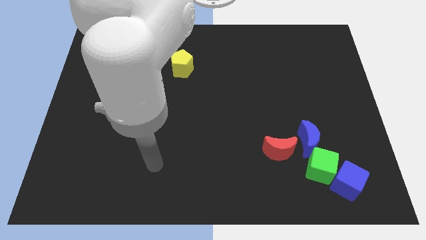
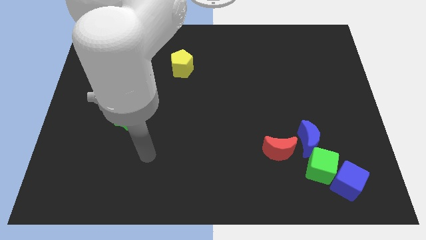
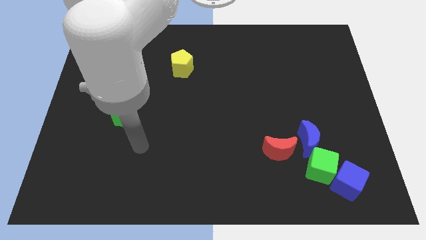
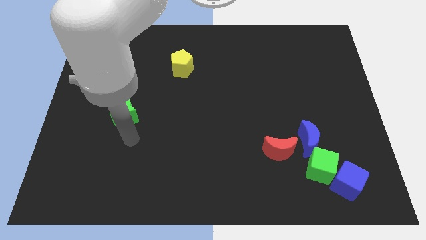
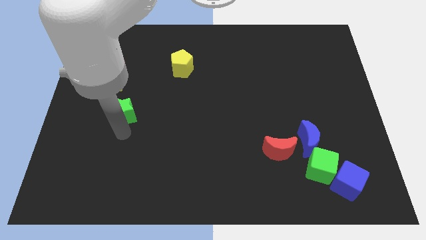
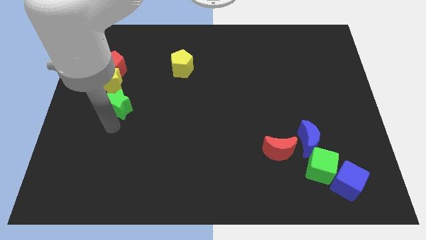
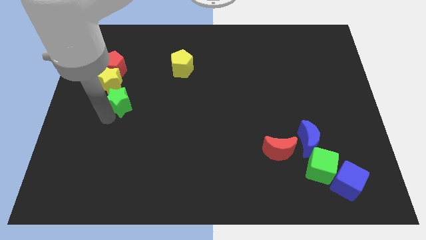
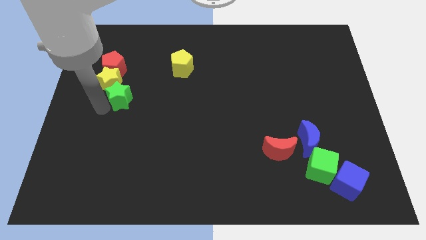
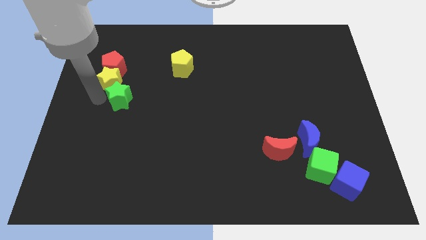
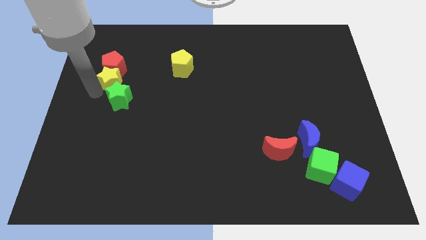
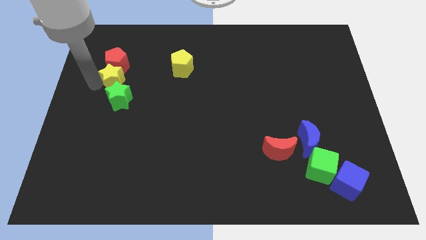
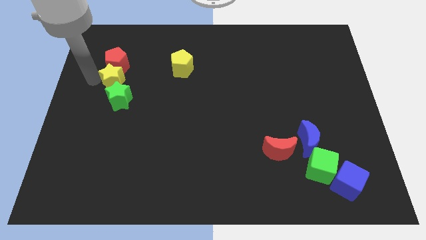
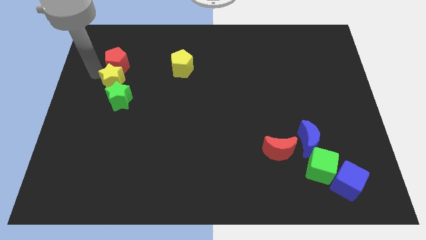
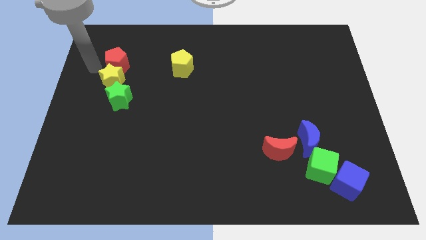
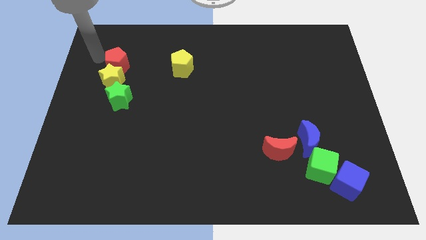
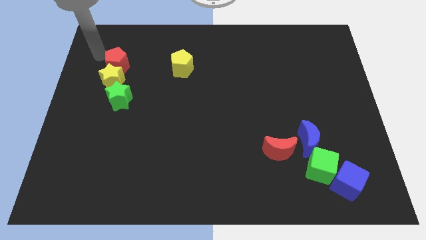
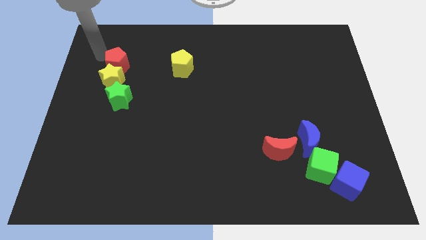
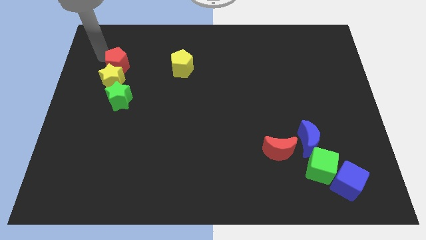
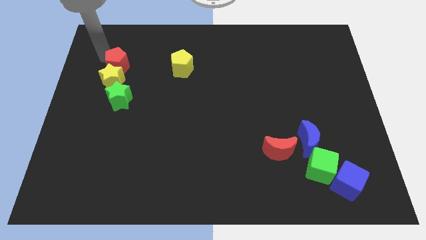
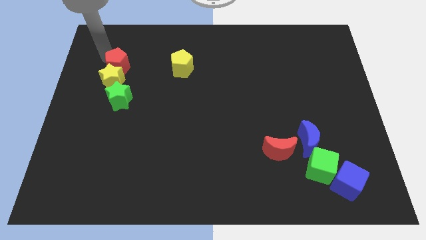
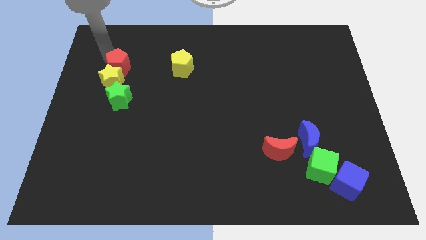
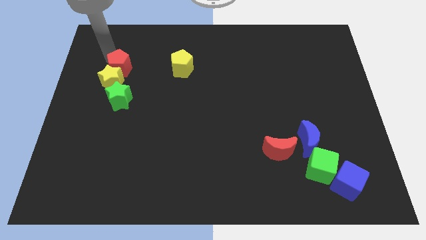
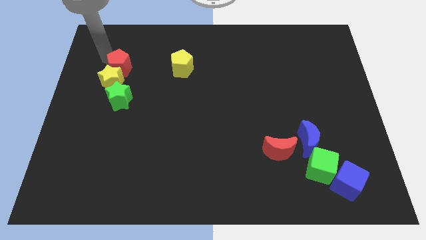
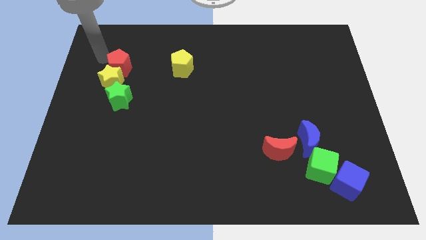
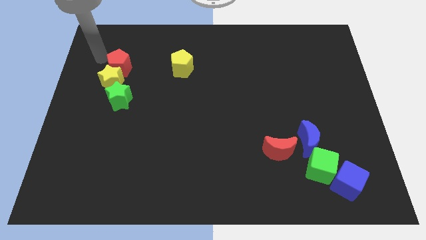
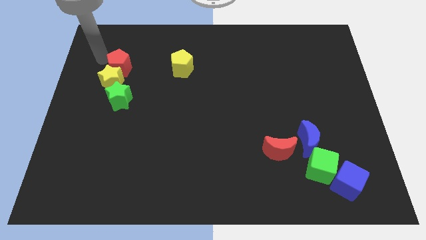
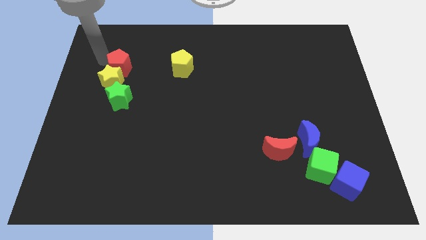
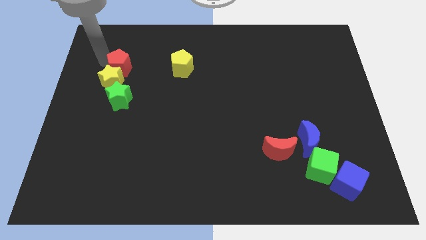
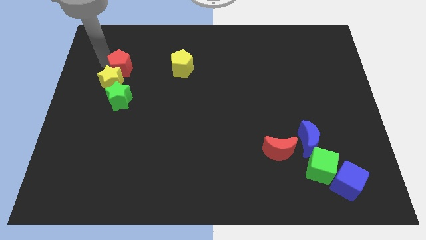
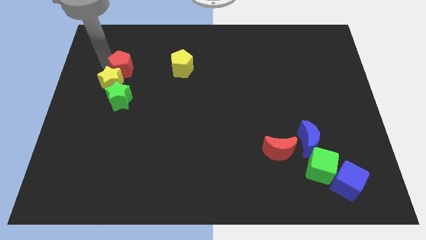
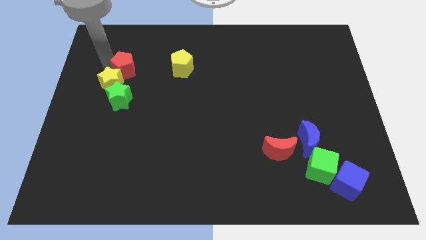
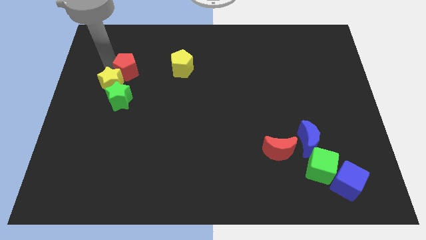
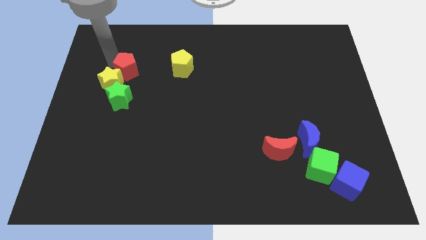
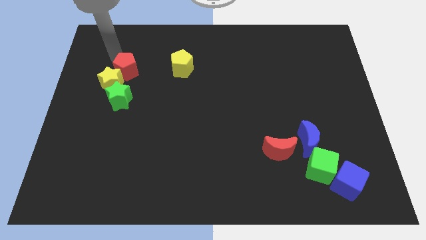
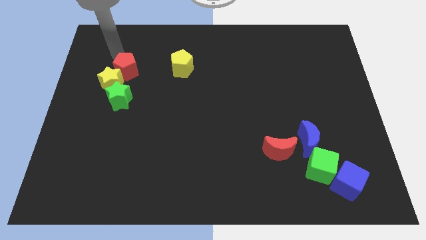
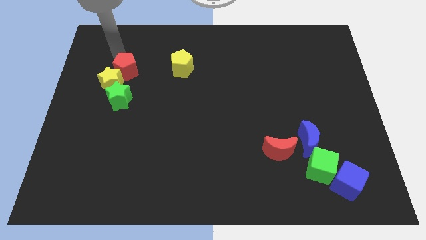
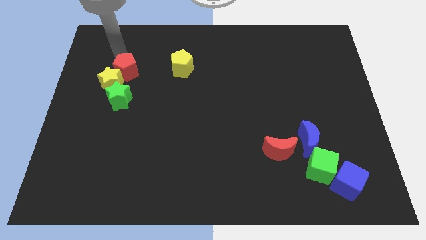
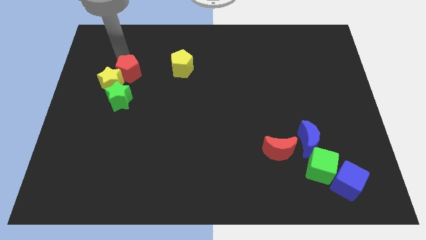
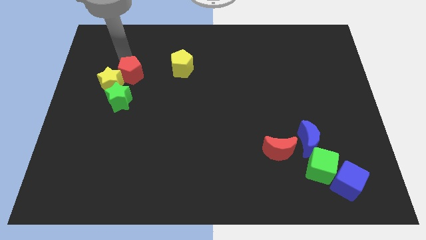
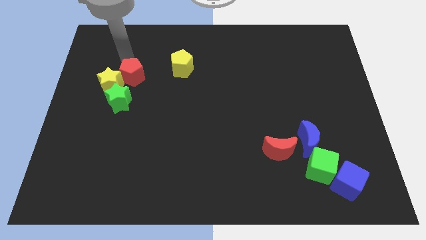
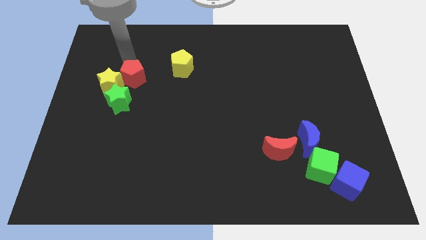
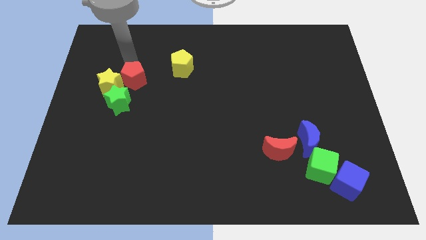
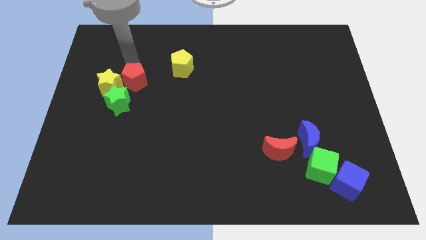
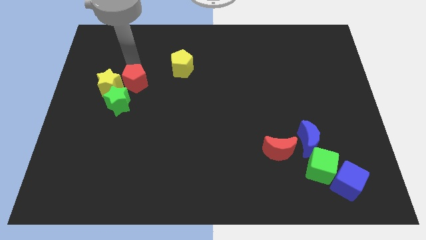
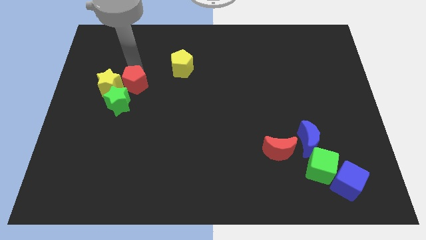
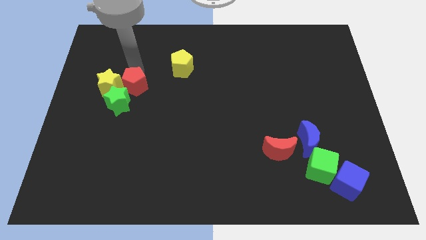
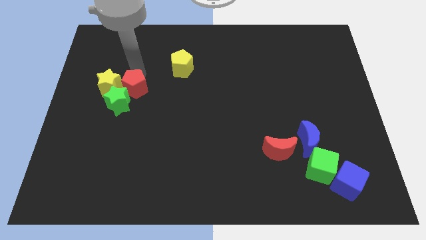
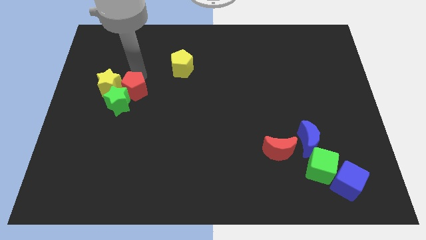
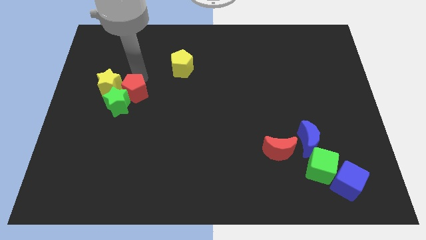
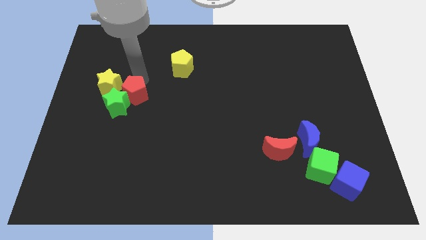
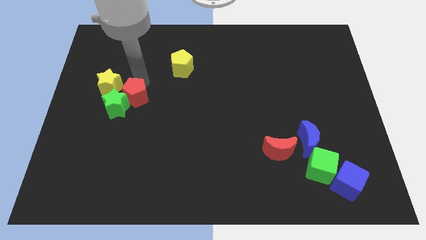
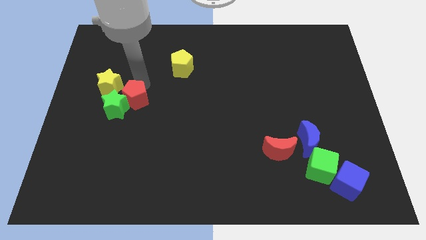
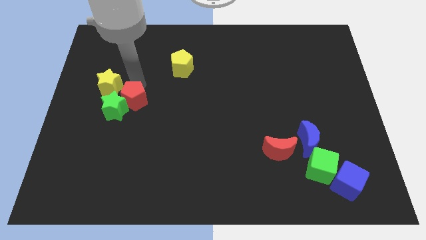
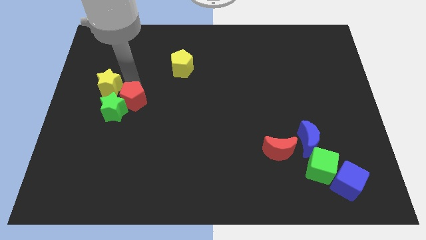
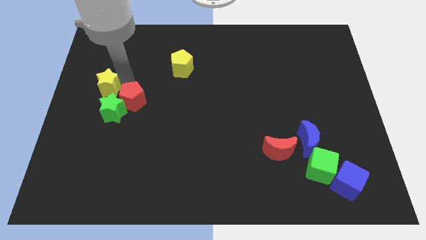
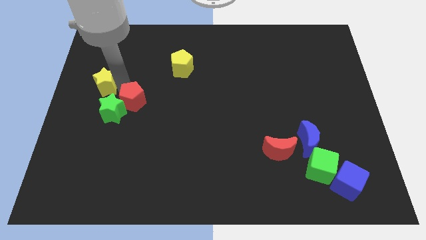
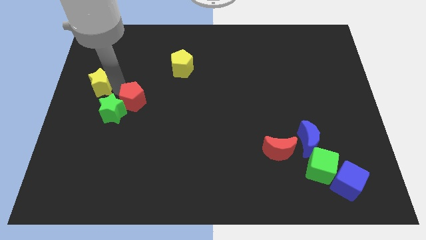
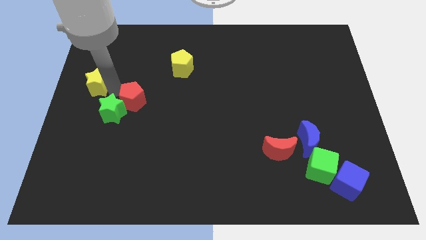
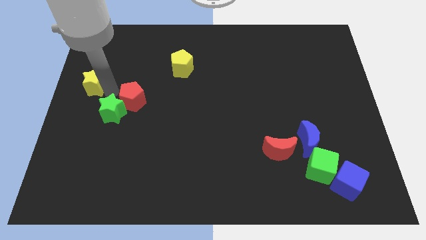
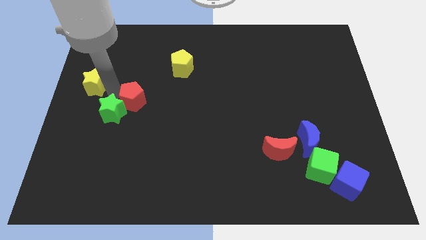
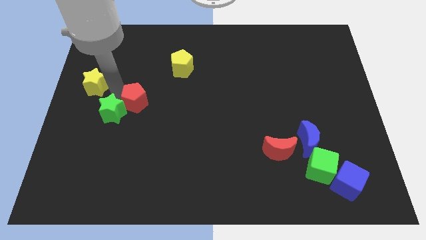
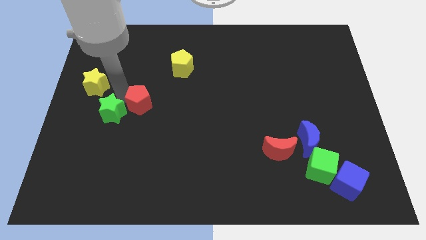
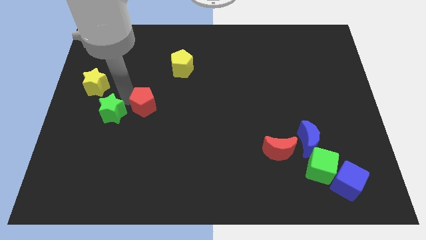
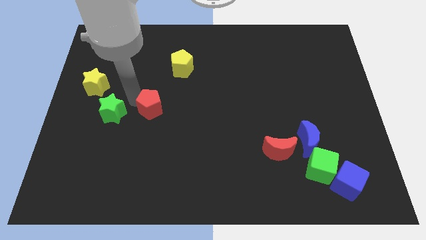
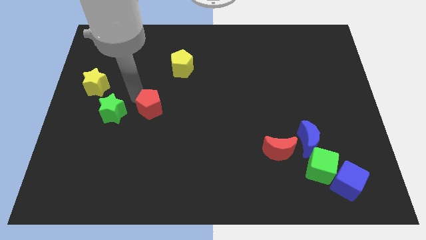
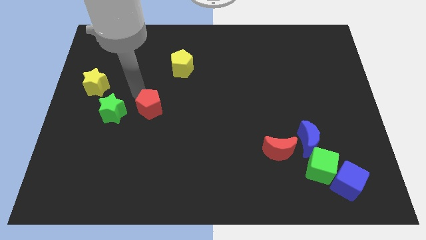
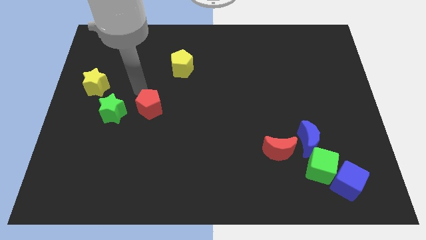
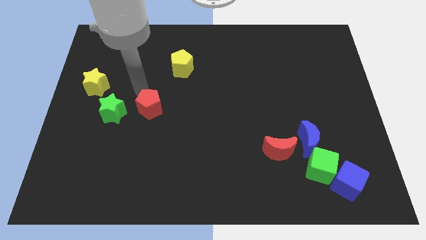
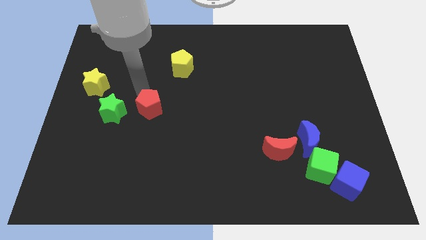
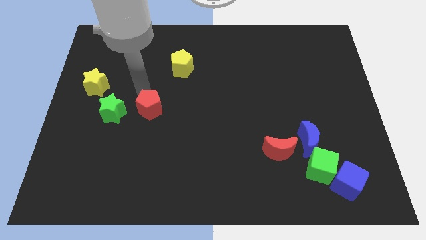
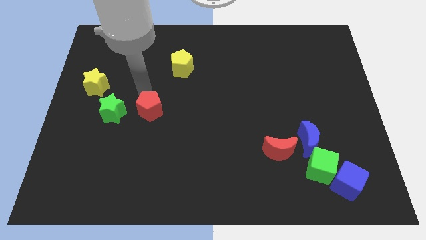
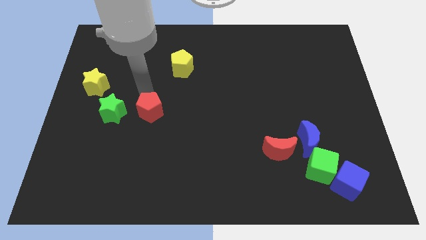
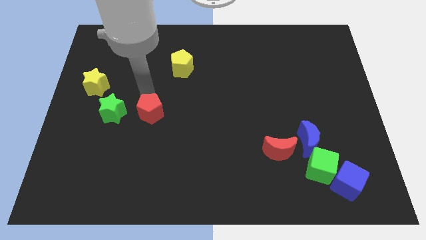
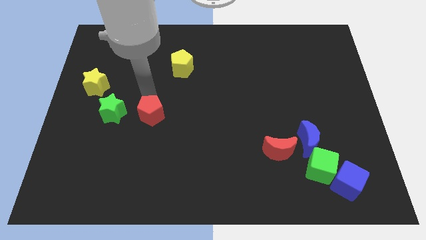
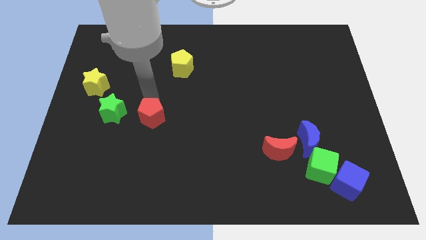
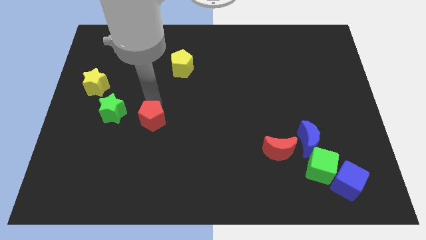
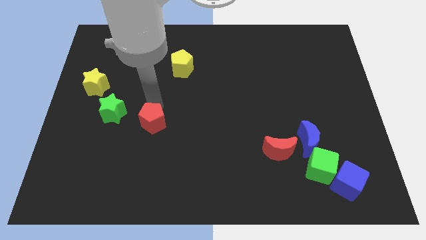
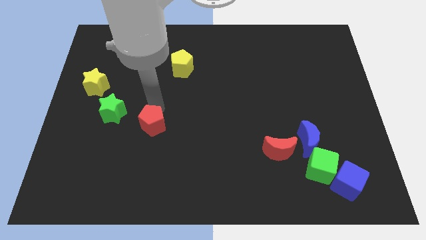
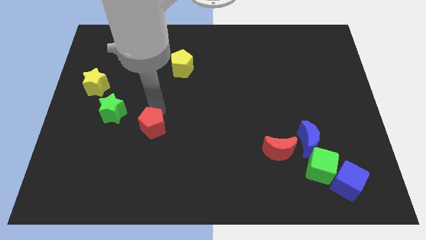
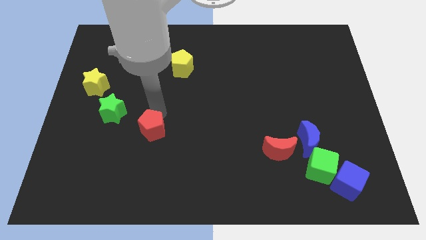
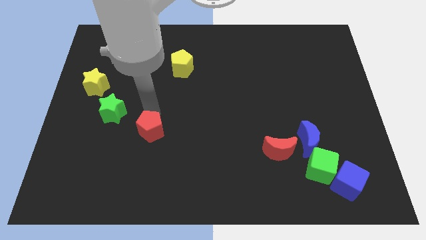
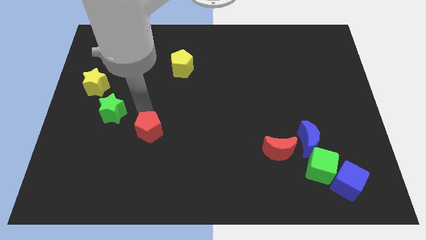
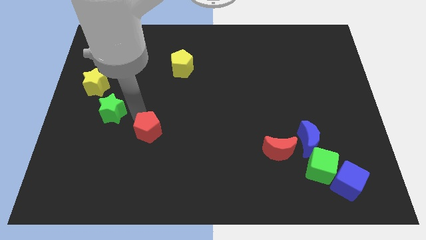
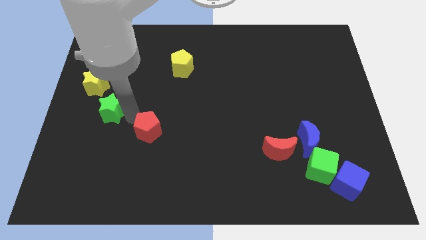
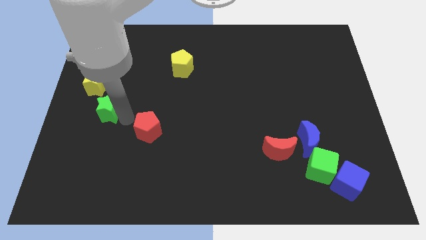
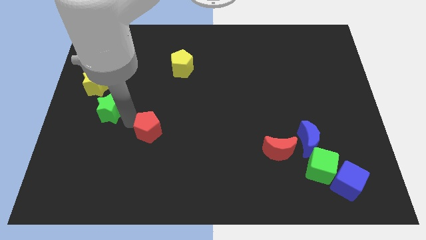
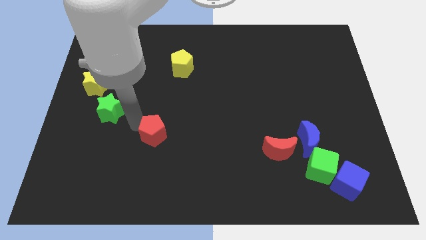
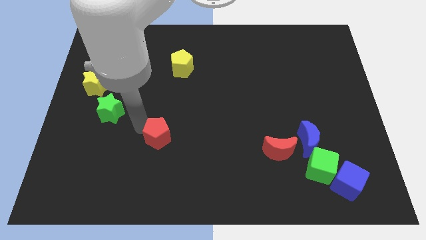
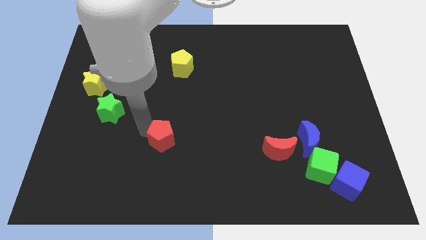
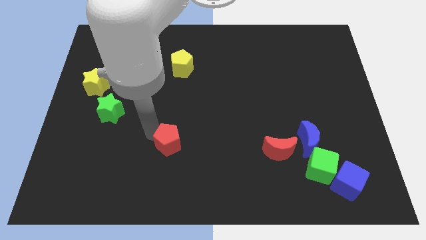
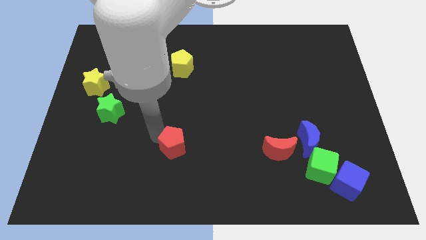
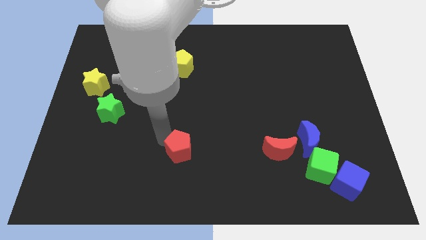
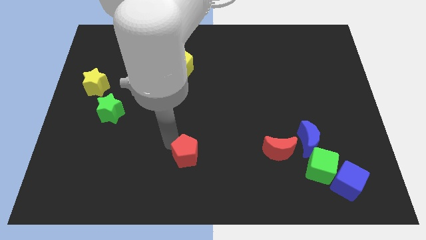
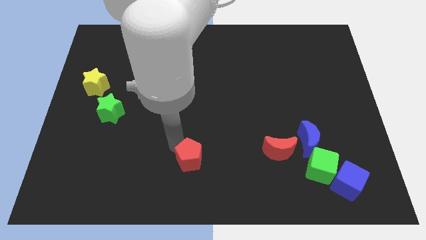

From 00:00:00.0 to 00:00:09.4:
push the red pentagon to the bottom side
